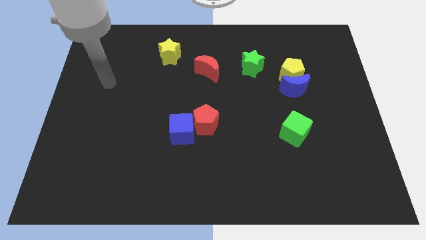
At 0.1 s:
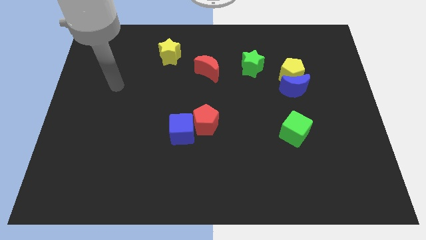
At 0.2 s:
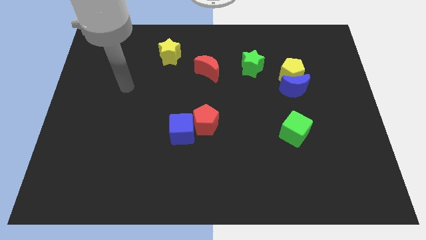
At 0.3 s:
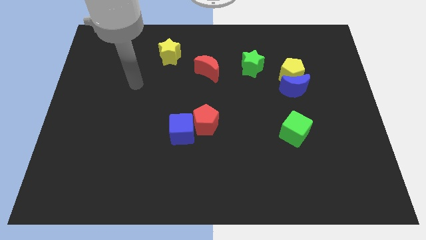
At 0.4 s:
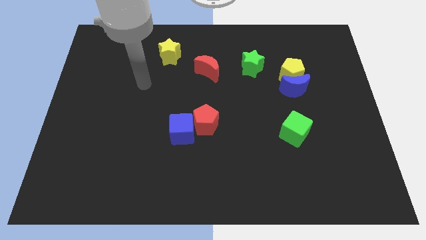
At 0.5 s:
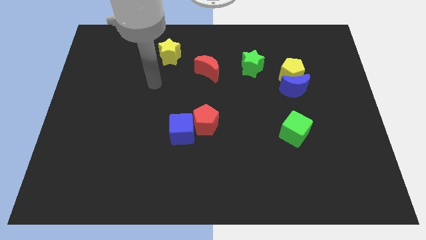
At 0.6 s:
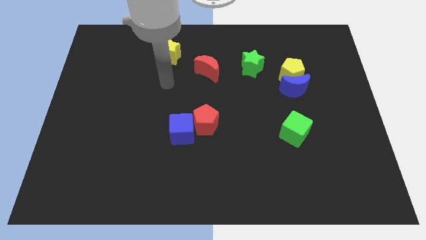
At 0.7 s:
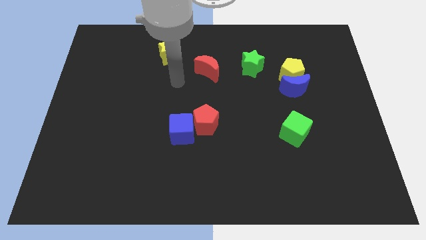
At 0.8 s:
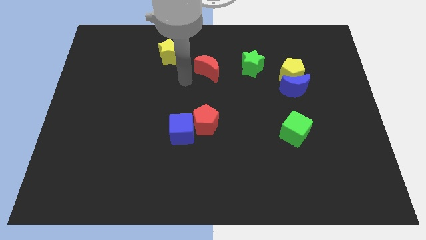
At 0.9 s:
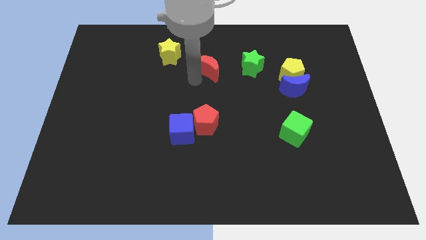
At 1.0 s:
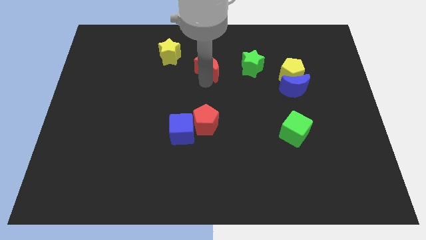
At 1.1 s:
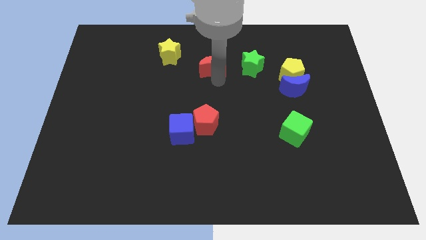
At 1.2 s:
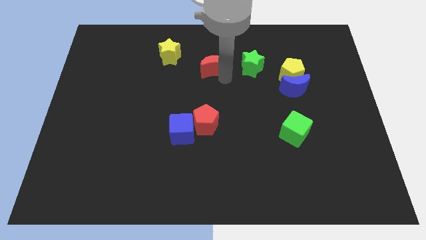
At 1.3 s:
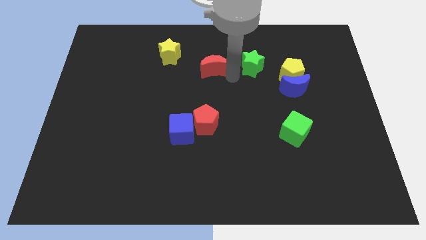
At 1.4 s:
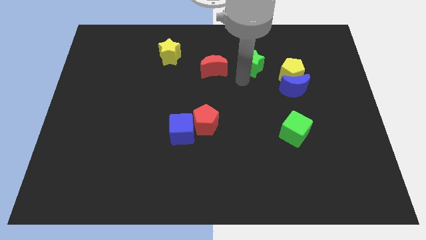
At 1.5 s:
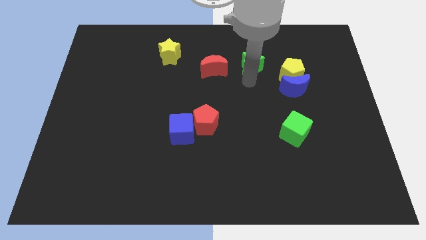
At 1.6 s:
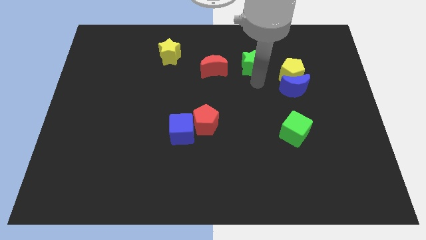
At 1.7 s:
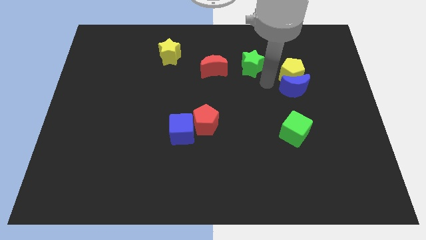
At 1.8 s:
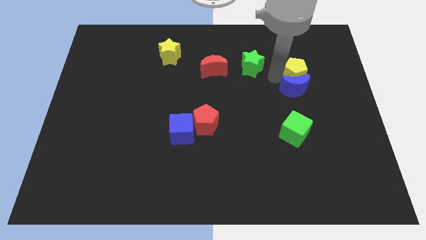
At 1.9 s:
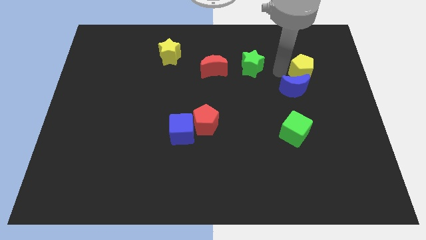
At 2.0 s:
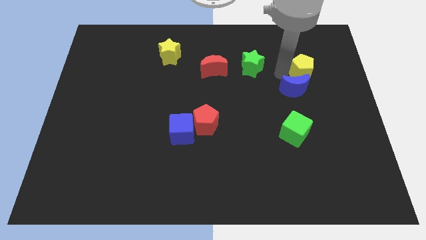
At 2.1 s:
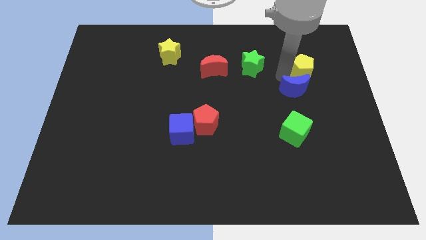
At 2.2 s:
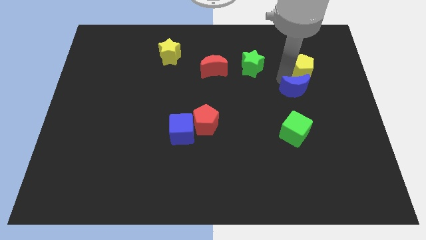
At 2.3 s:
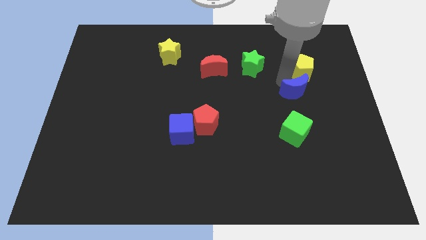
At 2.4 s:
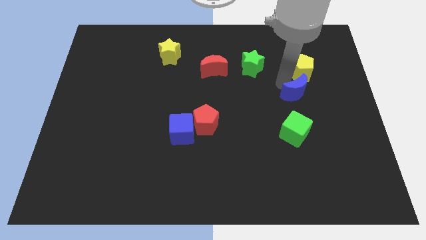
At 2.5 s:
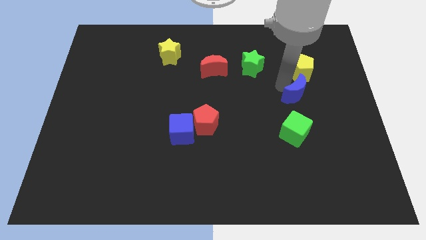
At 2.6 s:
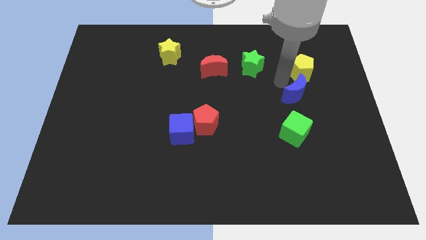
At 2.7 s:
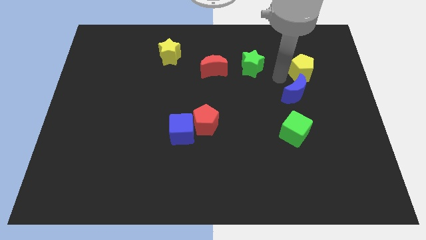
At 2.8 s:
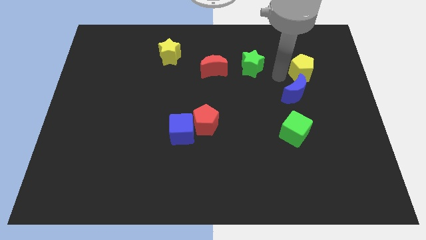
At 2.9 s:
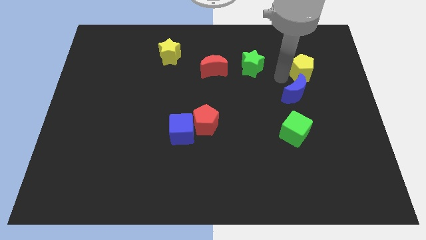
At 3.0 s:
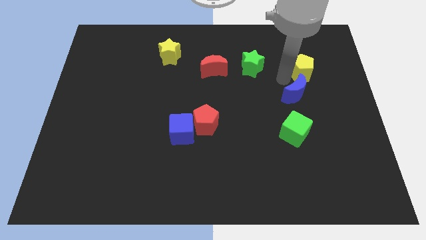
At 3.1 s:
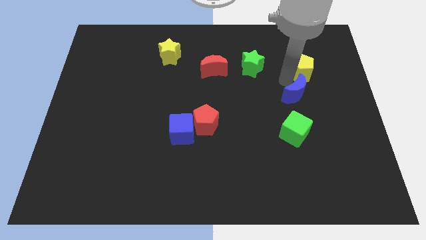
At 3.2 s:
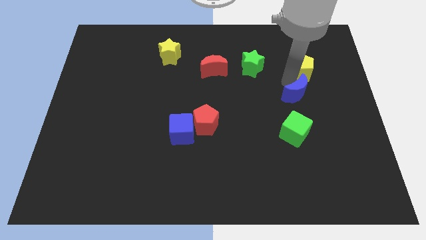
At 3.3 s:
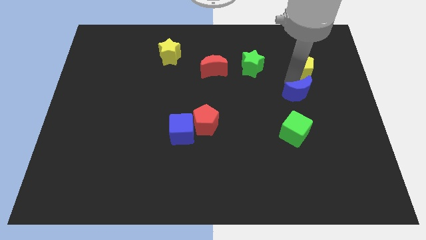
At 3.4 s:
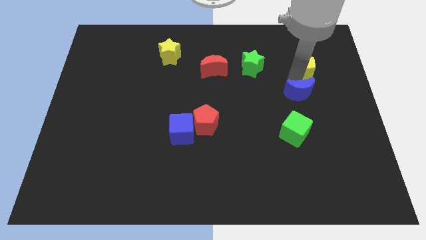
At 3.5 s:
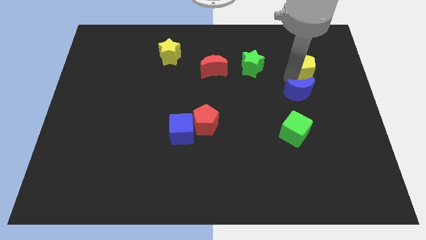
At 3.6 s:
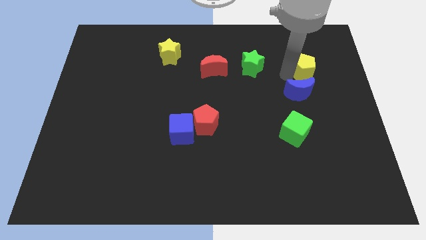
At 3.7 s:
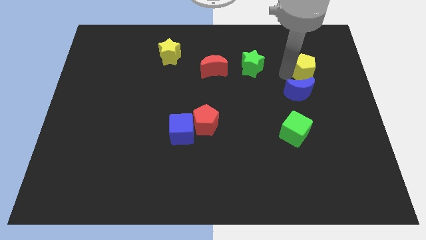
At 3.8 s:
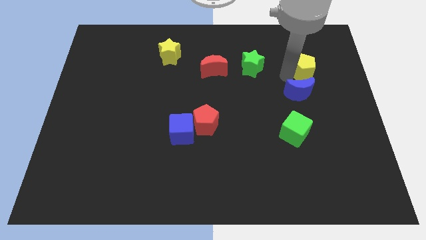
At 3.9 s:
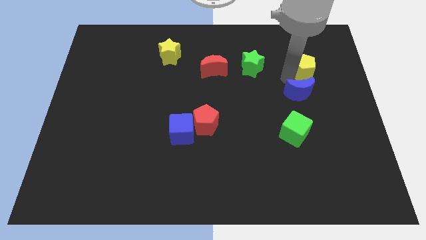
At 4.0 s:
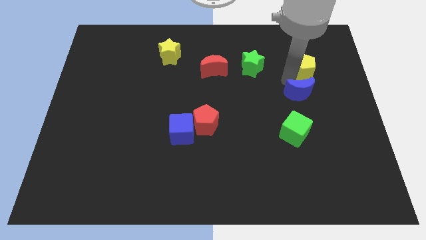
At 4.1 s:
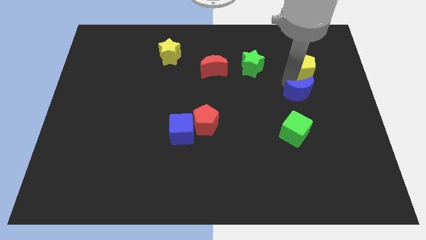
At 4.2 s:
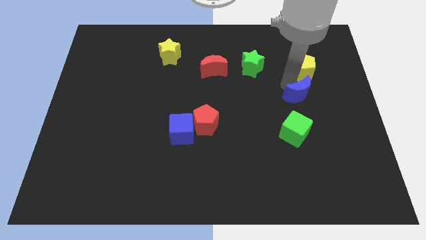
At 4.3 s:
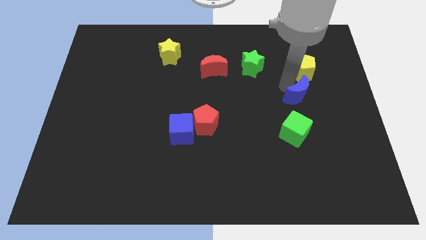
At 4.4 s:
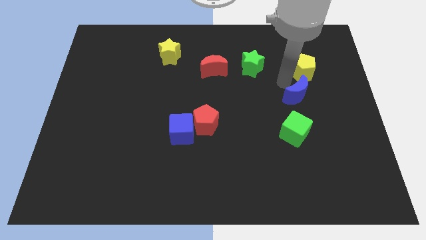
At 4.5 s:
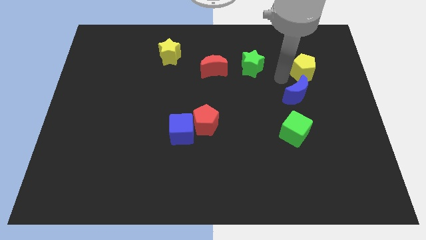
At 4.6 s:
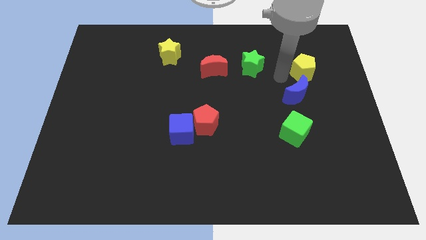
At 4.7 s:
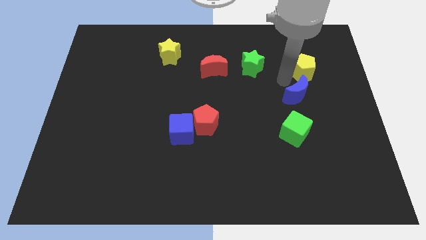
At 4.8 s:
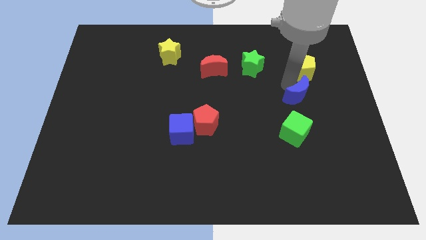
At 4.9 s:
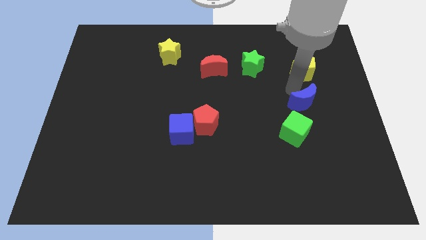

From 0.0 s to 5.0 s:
move the blue moon to the top right side of the green cube

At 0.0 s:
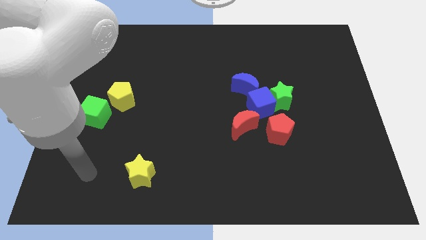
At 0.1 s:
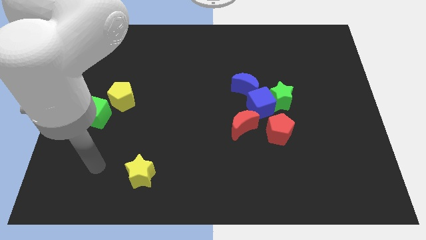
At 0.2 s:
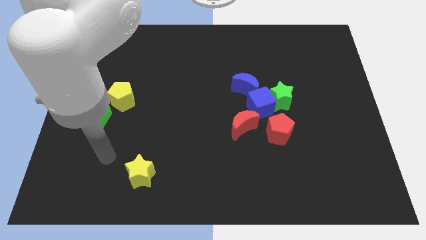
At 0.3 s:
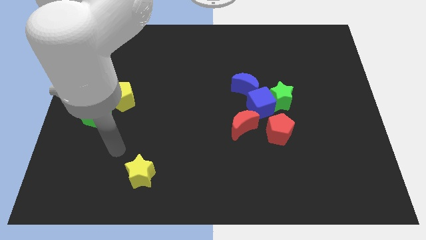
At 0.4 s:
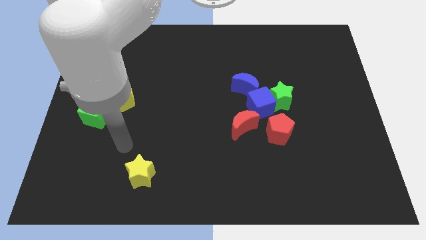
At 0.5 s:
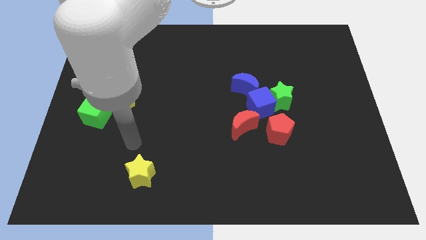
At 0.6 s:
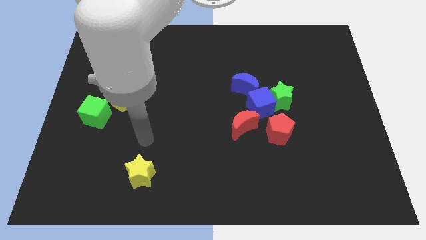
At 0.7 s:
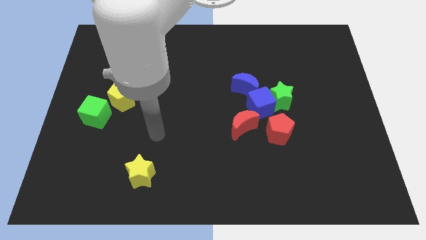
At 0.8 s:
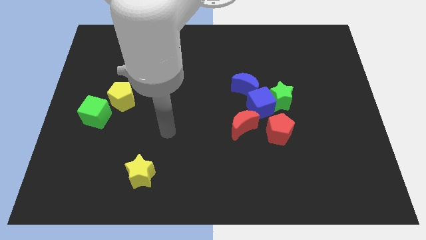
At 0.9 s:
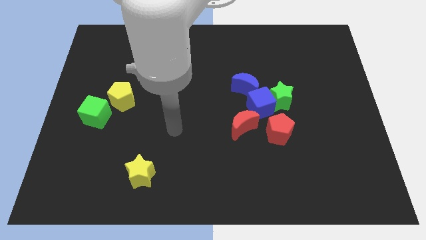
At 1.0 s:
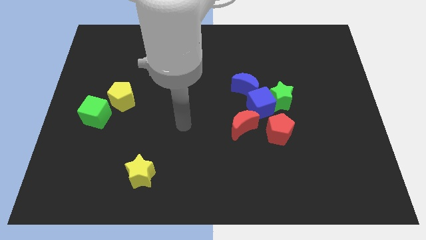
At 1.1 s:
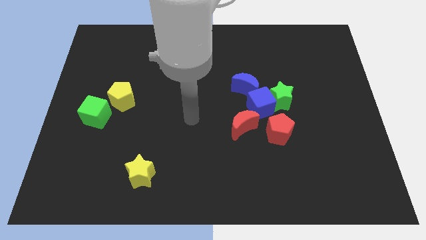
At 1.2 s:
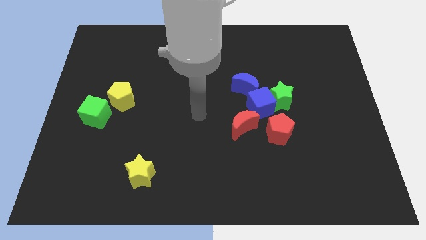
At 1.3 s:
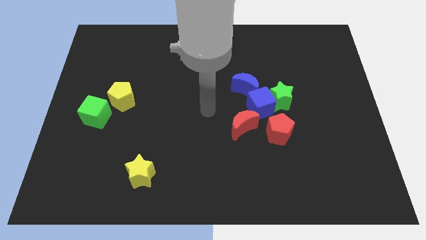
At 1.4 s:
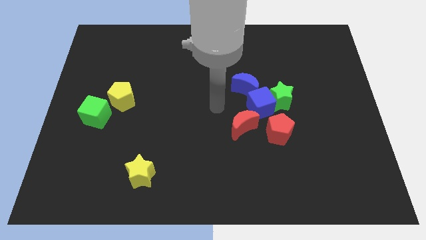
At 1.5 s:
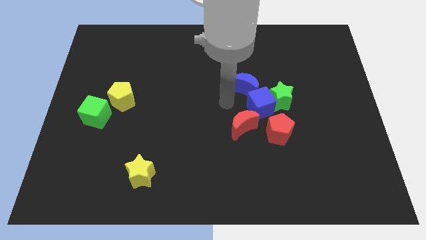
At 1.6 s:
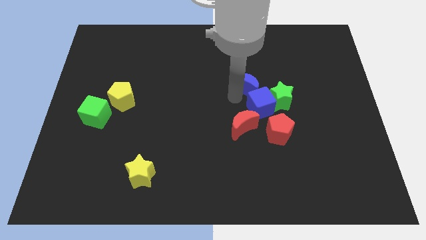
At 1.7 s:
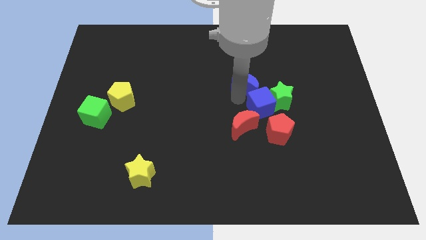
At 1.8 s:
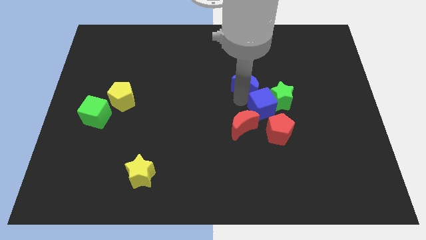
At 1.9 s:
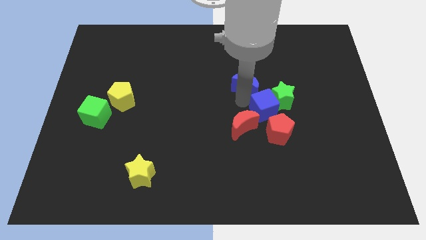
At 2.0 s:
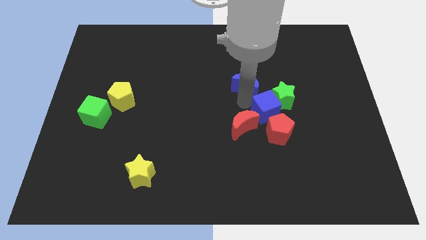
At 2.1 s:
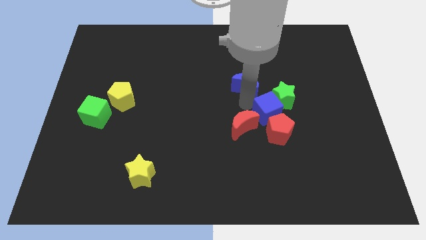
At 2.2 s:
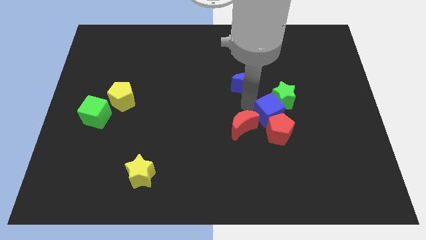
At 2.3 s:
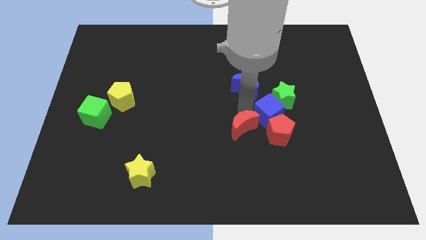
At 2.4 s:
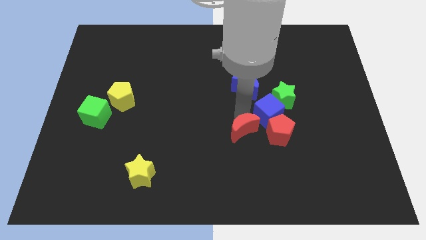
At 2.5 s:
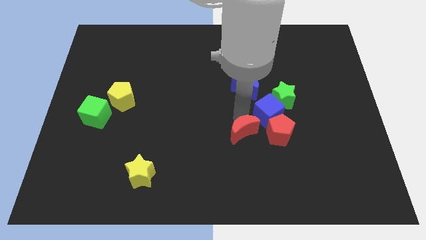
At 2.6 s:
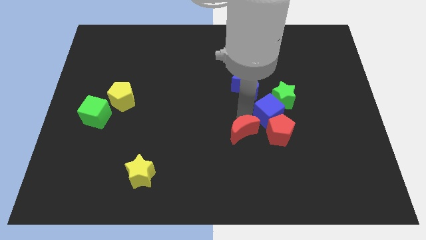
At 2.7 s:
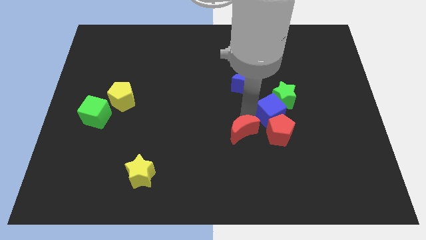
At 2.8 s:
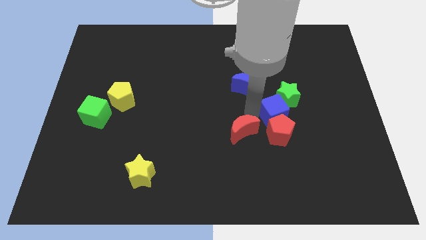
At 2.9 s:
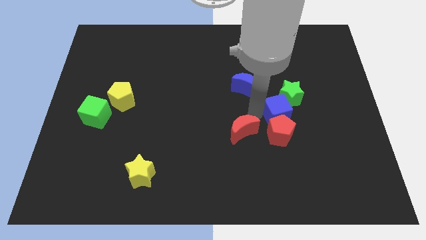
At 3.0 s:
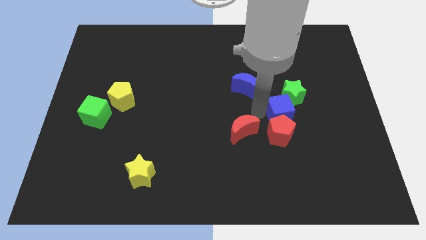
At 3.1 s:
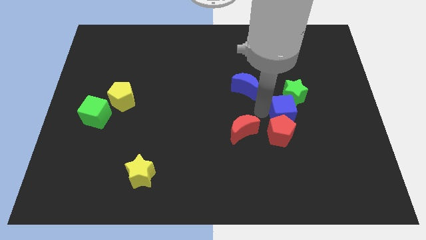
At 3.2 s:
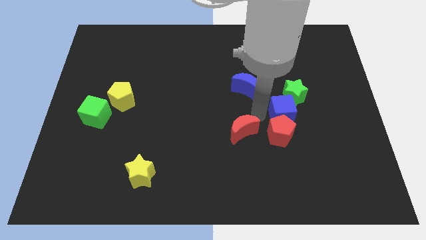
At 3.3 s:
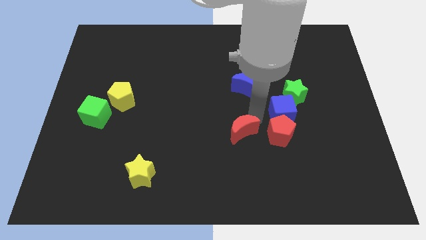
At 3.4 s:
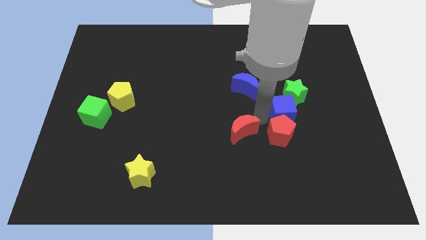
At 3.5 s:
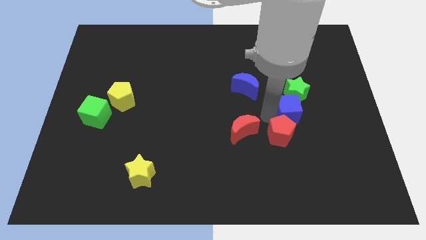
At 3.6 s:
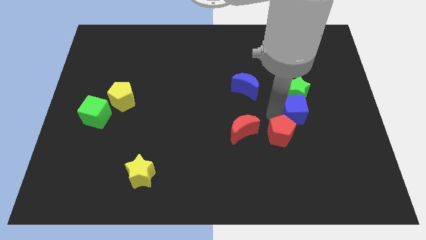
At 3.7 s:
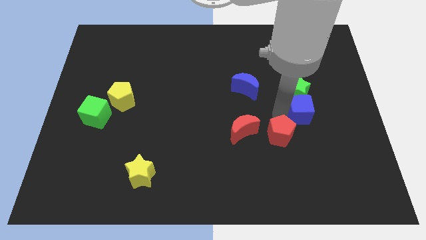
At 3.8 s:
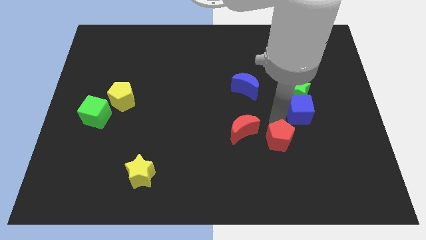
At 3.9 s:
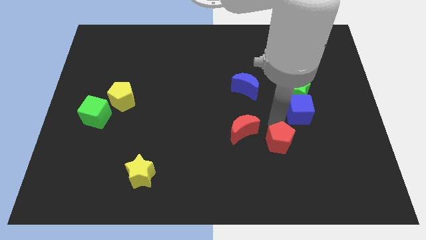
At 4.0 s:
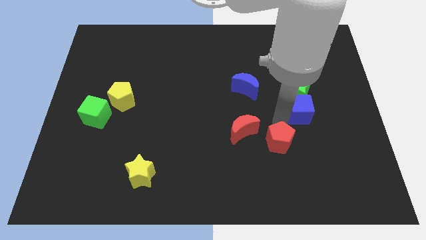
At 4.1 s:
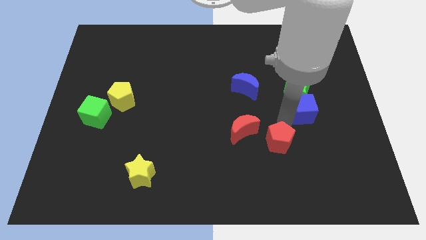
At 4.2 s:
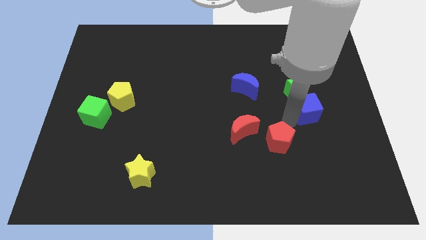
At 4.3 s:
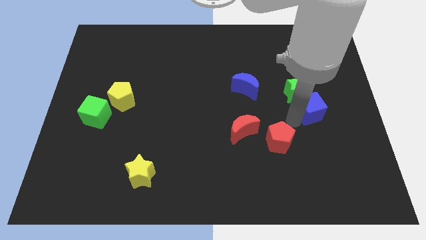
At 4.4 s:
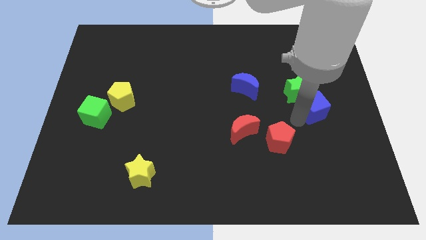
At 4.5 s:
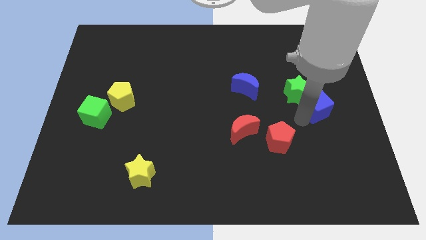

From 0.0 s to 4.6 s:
push the blue cube just right of the green star
